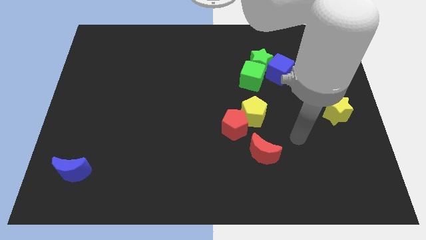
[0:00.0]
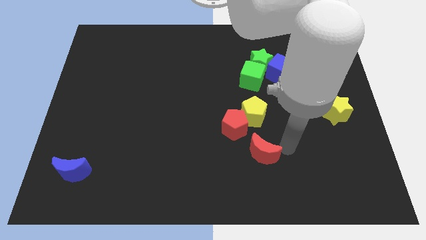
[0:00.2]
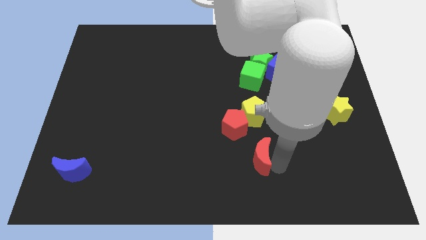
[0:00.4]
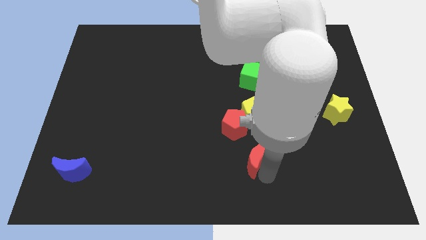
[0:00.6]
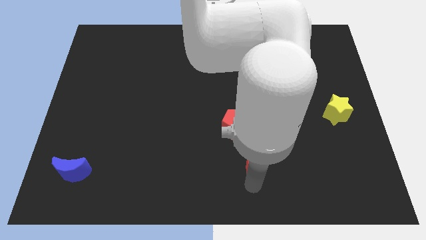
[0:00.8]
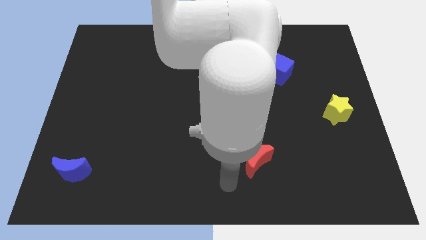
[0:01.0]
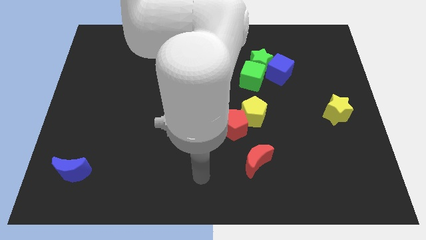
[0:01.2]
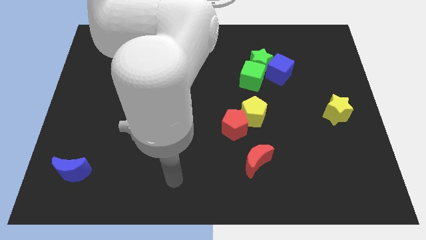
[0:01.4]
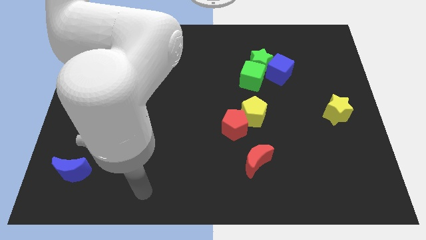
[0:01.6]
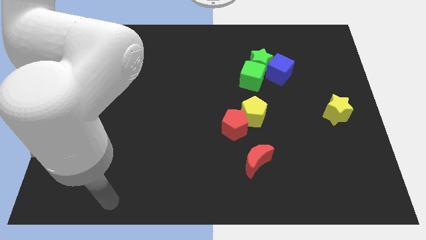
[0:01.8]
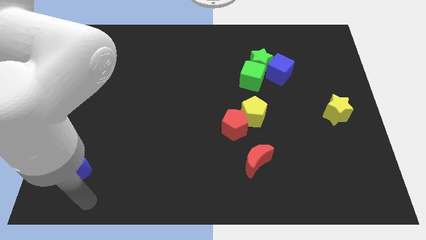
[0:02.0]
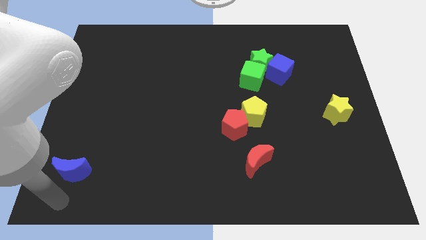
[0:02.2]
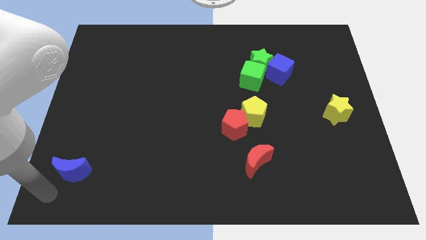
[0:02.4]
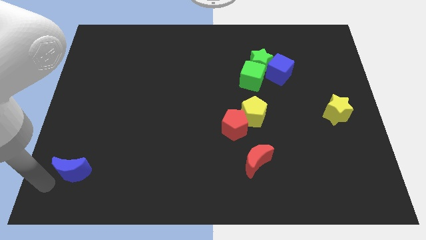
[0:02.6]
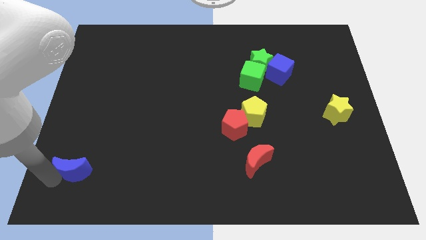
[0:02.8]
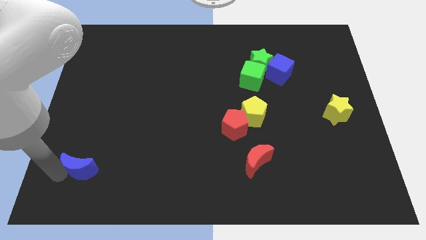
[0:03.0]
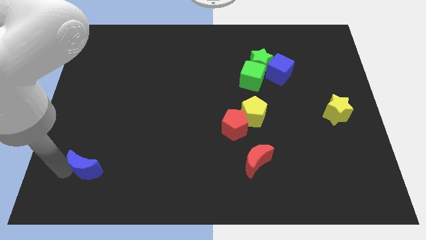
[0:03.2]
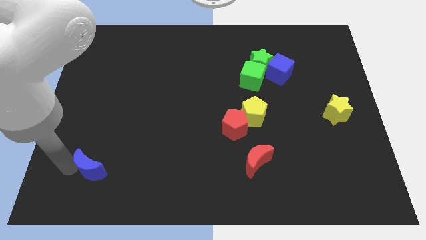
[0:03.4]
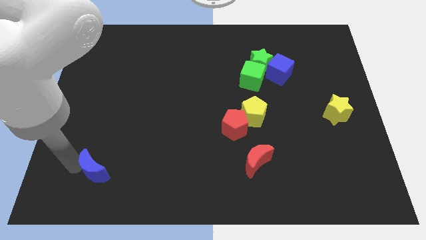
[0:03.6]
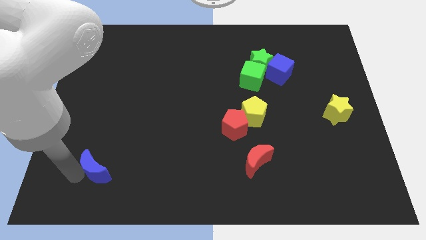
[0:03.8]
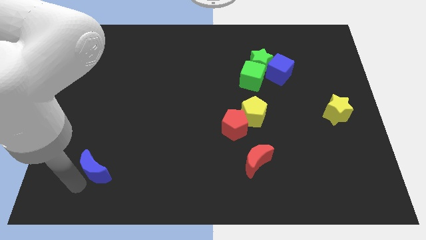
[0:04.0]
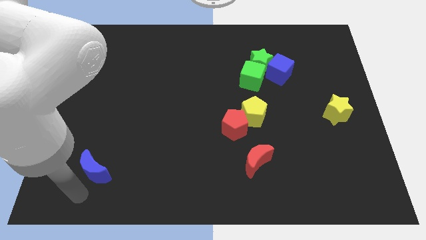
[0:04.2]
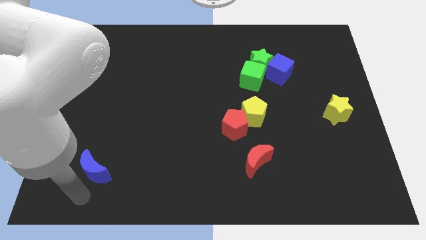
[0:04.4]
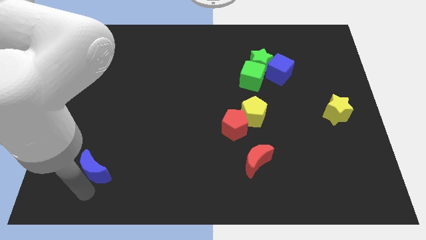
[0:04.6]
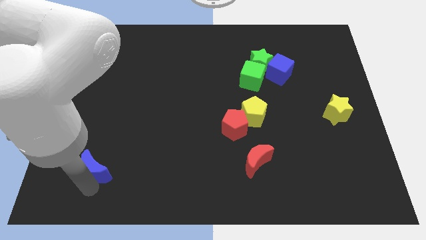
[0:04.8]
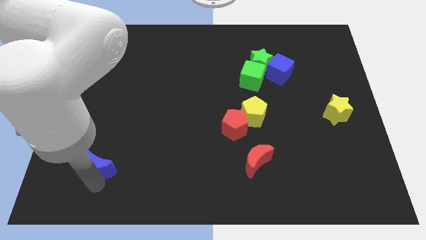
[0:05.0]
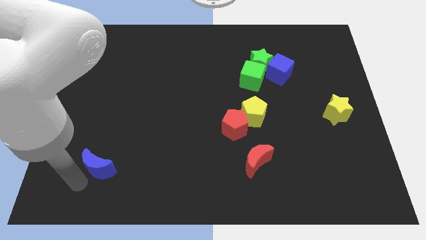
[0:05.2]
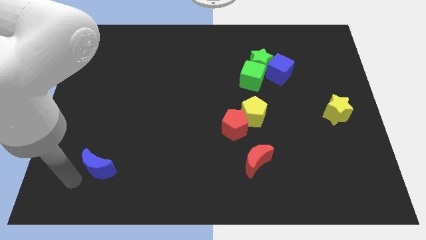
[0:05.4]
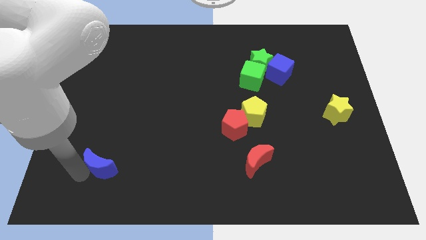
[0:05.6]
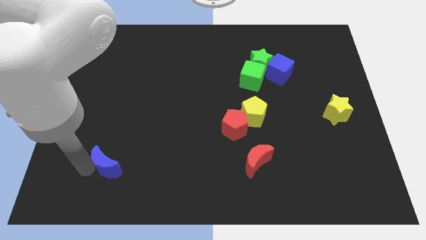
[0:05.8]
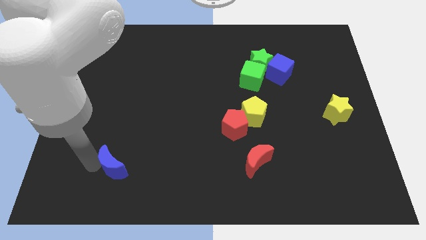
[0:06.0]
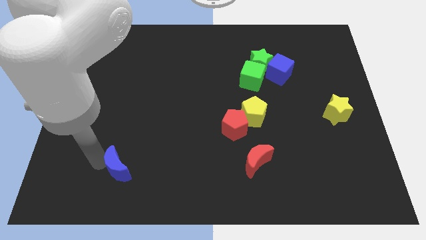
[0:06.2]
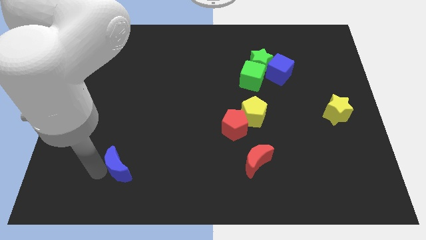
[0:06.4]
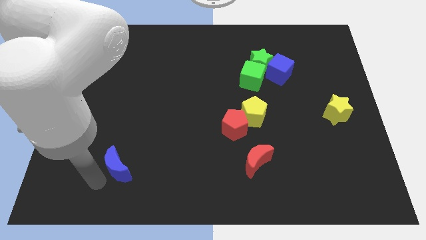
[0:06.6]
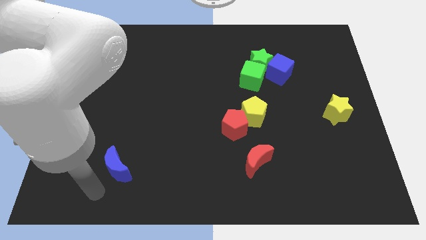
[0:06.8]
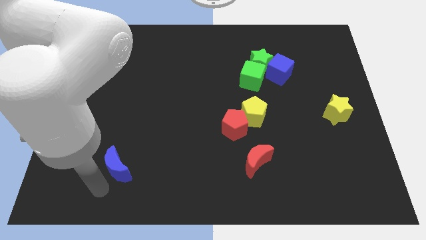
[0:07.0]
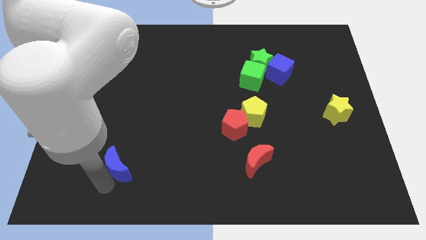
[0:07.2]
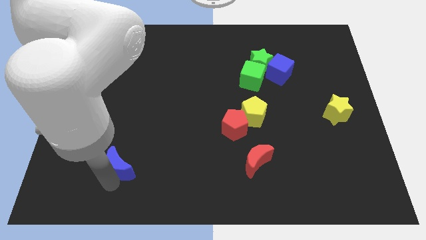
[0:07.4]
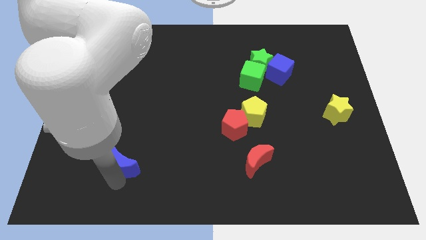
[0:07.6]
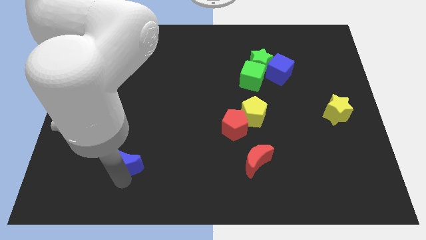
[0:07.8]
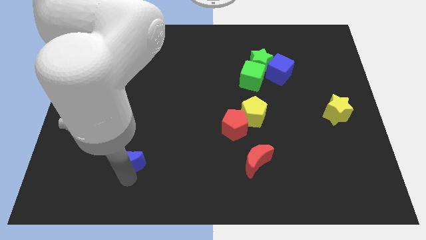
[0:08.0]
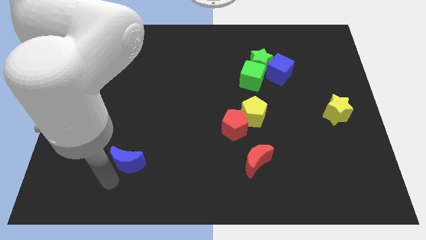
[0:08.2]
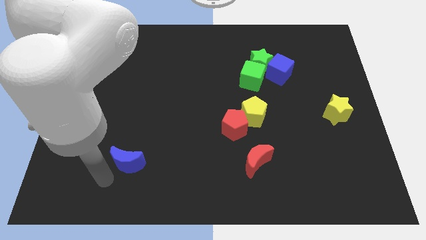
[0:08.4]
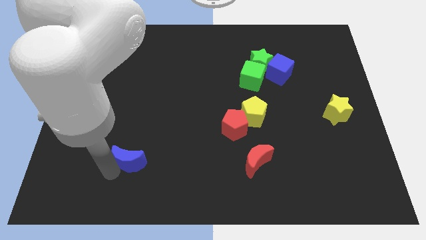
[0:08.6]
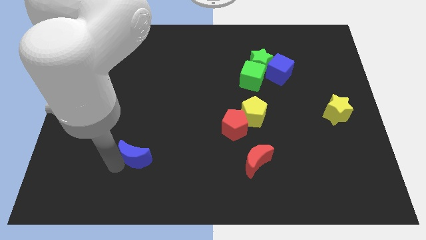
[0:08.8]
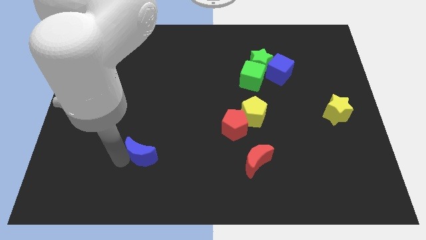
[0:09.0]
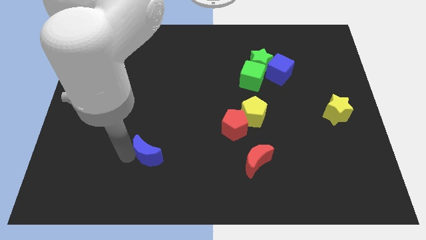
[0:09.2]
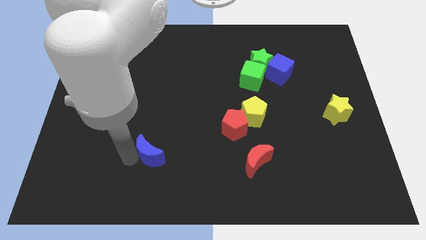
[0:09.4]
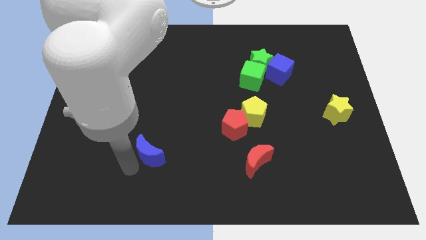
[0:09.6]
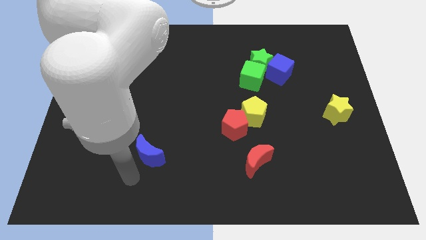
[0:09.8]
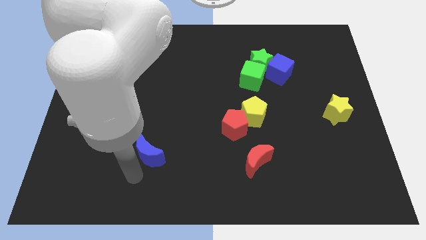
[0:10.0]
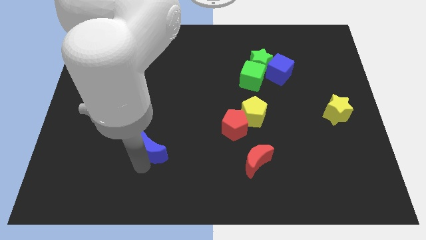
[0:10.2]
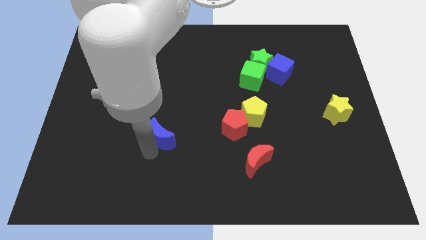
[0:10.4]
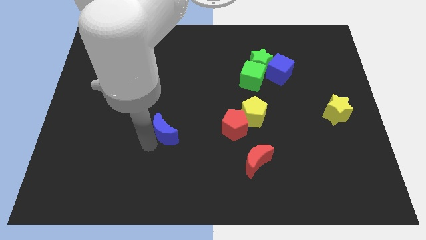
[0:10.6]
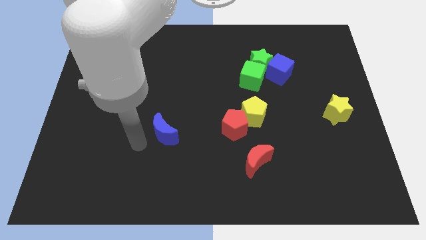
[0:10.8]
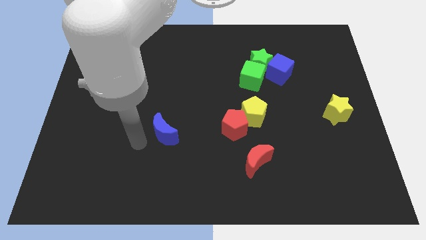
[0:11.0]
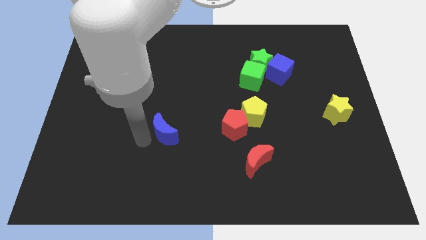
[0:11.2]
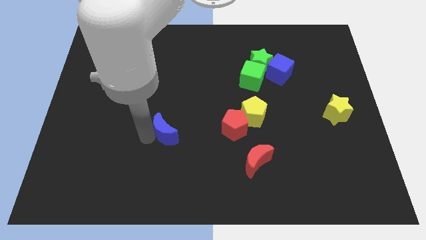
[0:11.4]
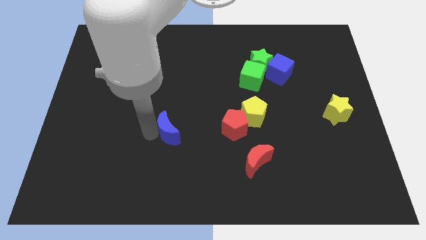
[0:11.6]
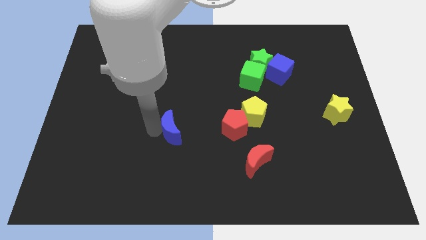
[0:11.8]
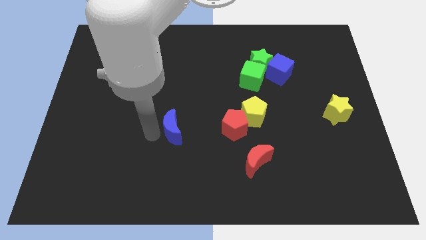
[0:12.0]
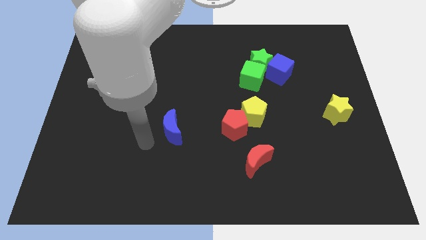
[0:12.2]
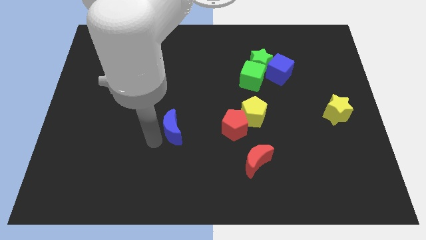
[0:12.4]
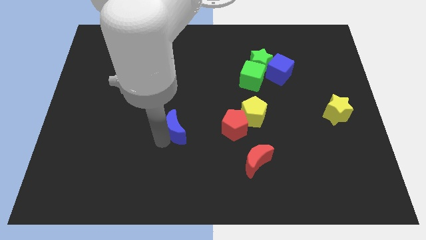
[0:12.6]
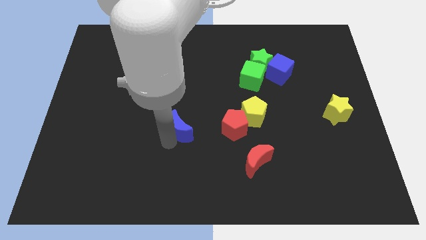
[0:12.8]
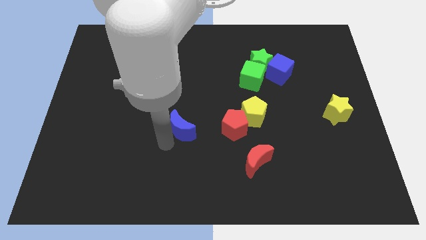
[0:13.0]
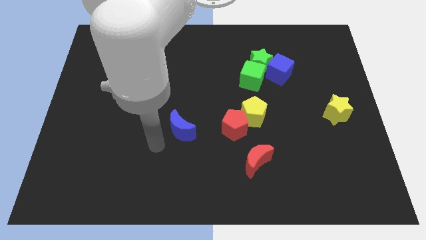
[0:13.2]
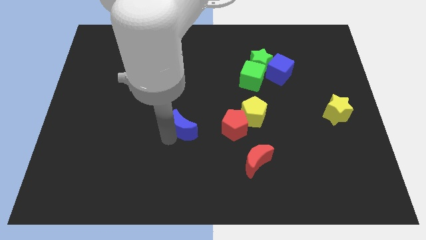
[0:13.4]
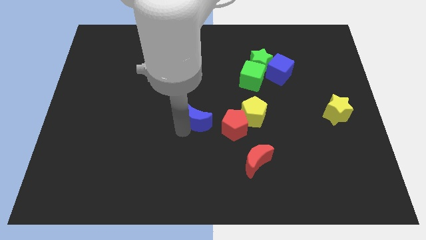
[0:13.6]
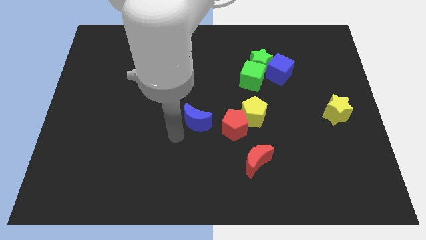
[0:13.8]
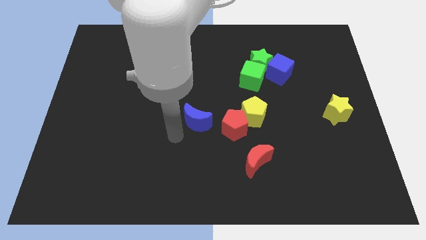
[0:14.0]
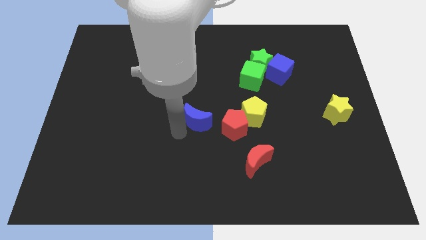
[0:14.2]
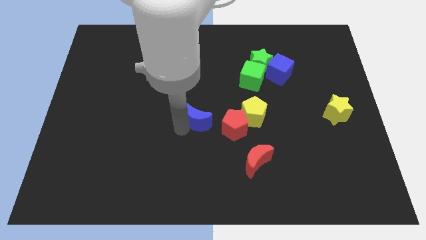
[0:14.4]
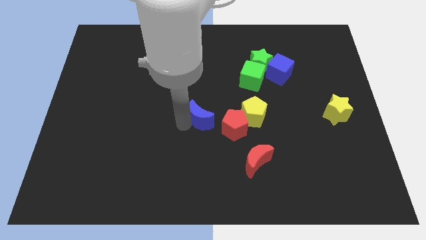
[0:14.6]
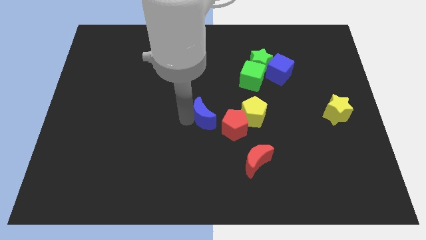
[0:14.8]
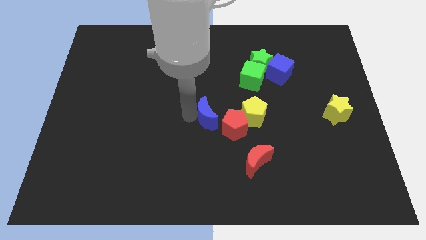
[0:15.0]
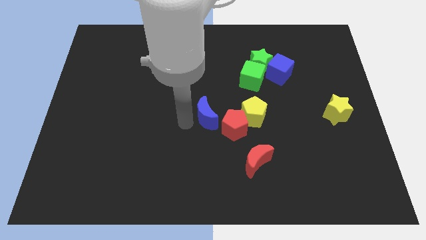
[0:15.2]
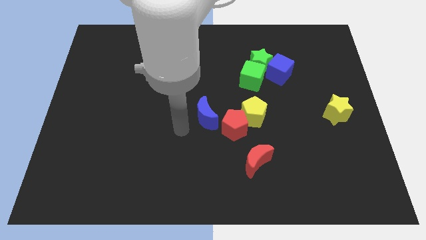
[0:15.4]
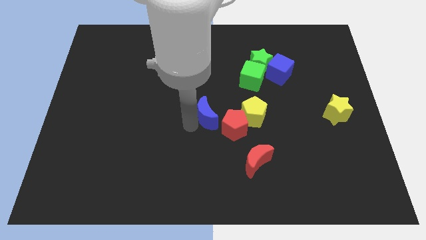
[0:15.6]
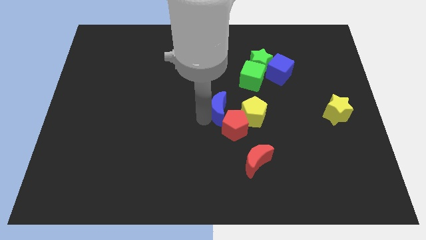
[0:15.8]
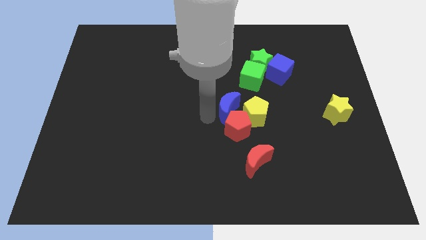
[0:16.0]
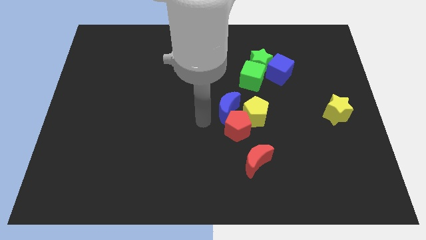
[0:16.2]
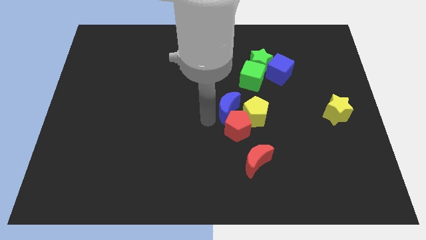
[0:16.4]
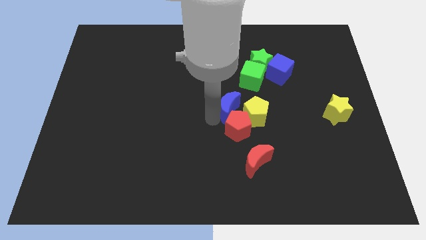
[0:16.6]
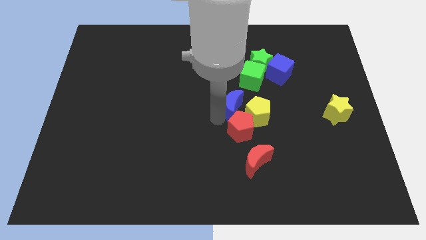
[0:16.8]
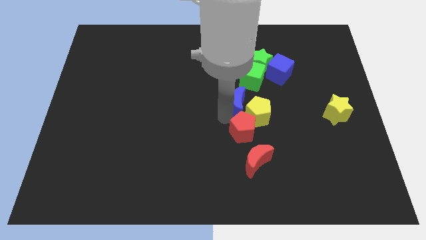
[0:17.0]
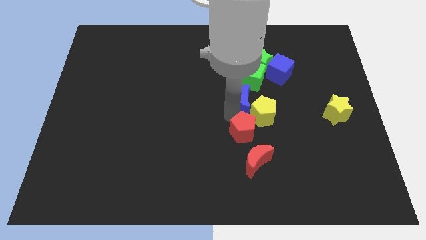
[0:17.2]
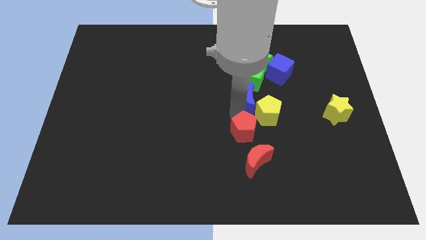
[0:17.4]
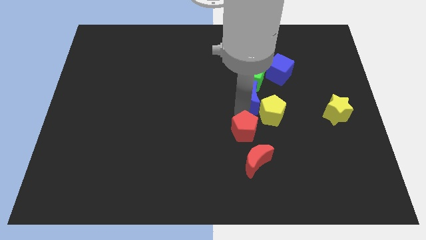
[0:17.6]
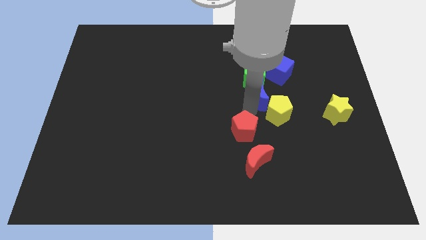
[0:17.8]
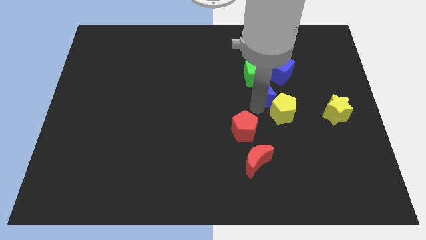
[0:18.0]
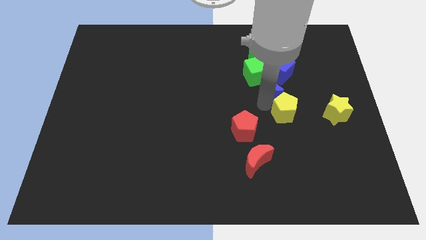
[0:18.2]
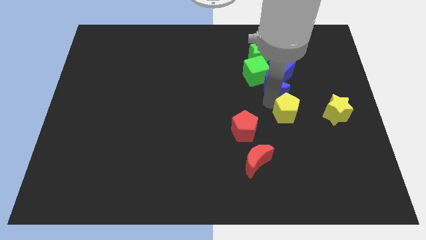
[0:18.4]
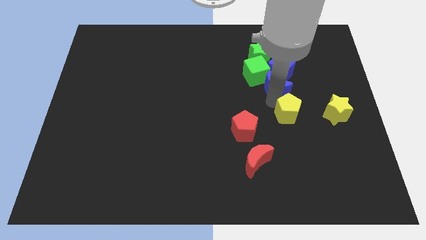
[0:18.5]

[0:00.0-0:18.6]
push the blue moon next to the blue cube
